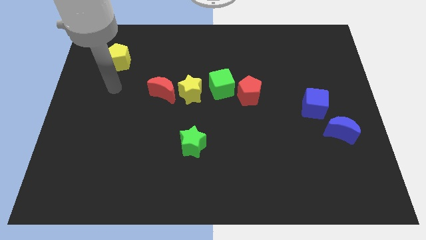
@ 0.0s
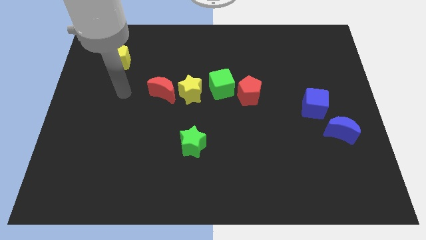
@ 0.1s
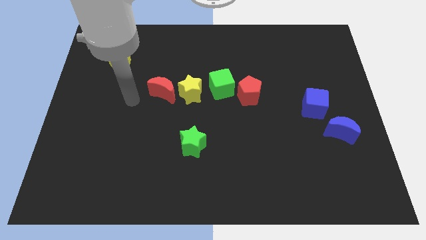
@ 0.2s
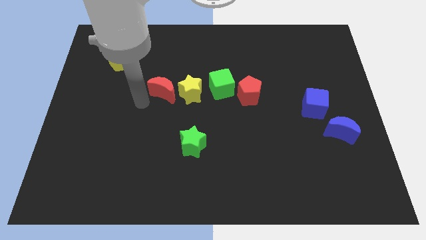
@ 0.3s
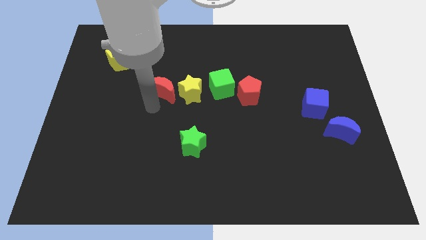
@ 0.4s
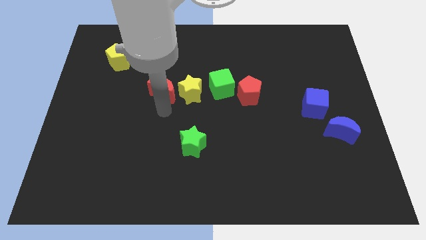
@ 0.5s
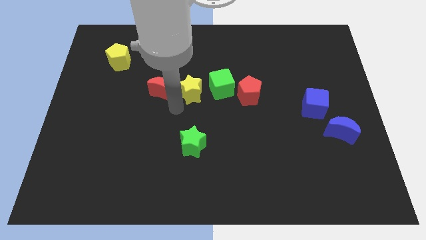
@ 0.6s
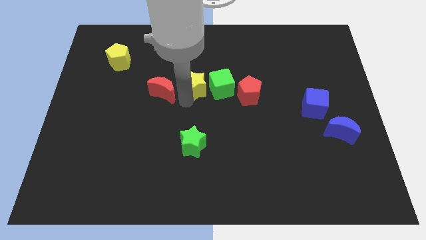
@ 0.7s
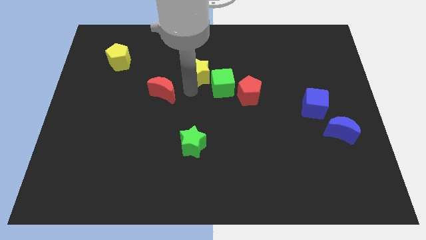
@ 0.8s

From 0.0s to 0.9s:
pull the red moon apart from the yellow star

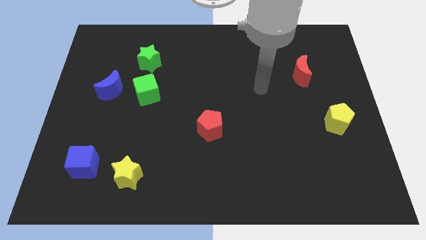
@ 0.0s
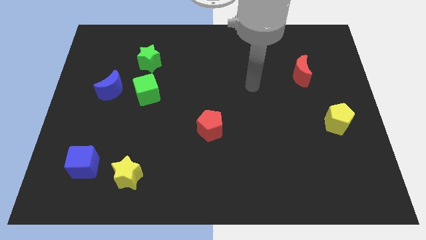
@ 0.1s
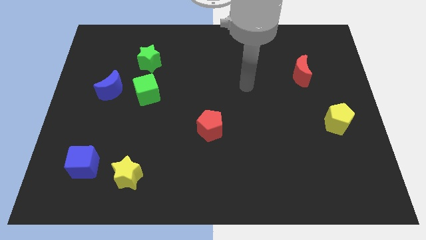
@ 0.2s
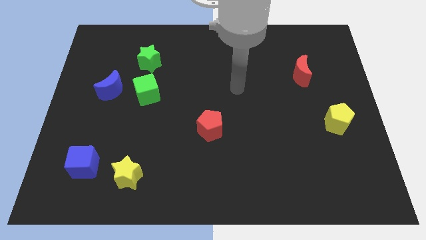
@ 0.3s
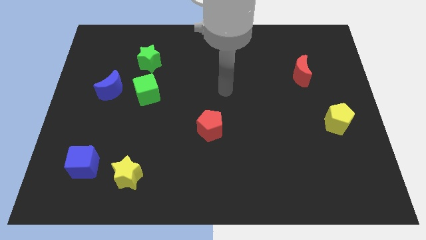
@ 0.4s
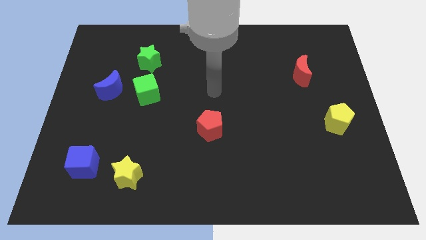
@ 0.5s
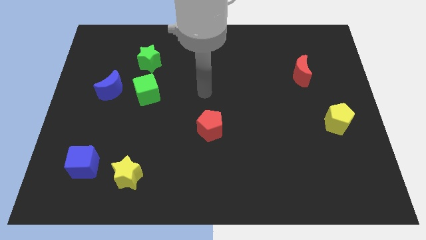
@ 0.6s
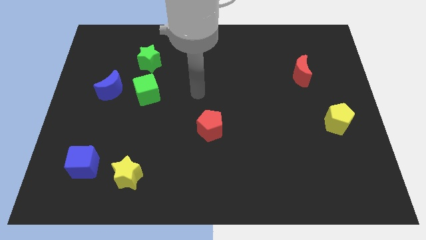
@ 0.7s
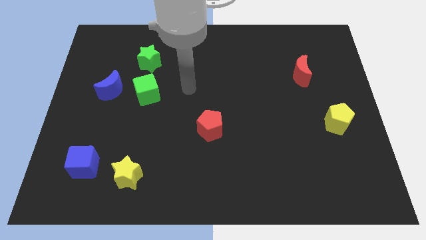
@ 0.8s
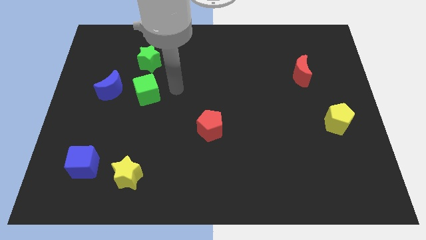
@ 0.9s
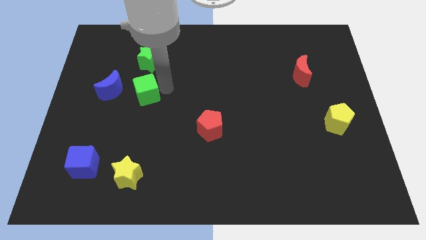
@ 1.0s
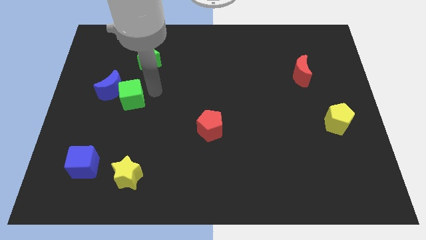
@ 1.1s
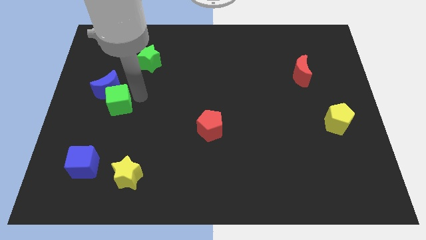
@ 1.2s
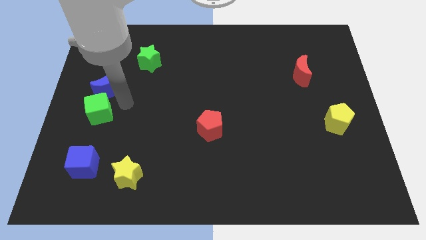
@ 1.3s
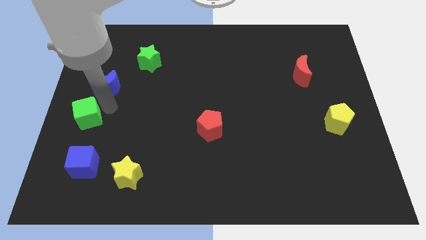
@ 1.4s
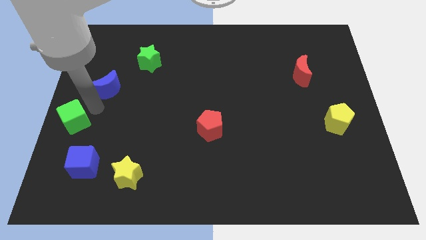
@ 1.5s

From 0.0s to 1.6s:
separate the blue moon from the green cube

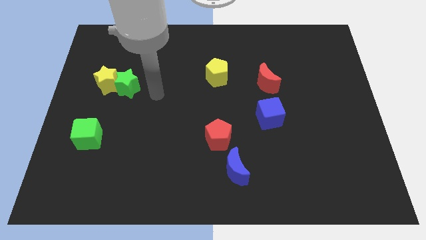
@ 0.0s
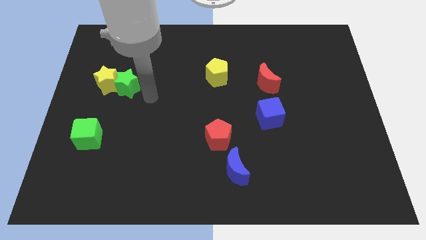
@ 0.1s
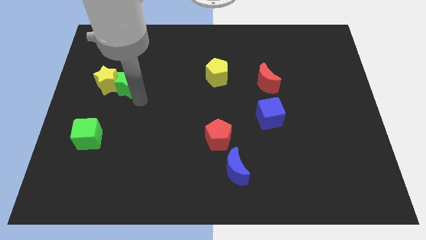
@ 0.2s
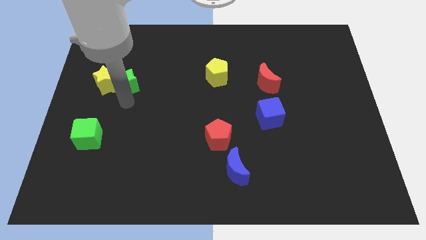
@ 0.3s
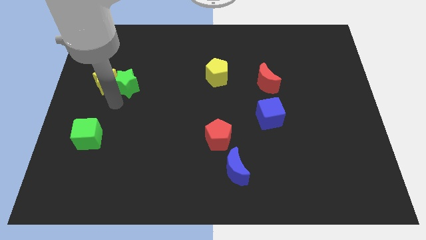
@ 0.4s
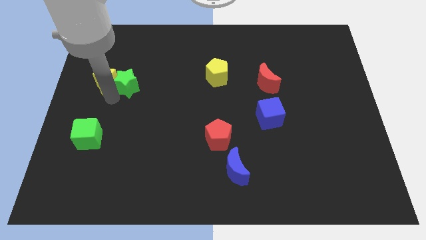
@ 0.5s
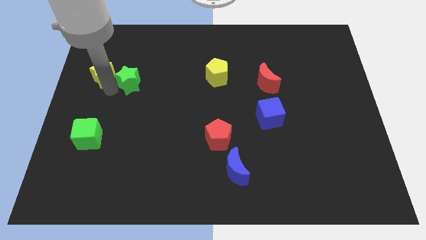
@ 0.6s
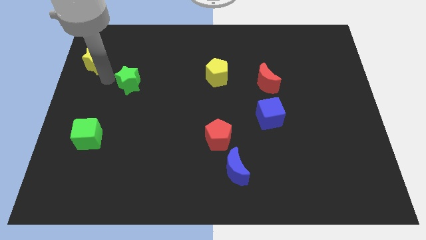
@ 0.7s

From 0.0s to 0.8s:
pull the green star apart from the yellow star

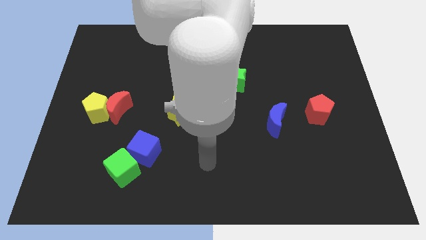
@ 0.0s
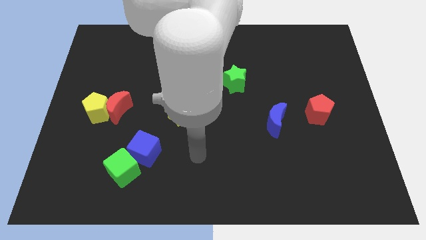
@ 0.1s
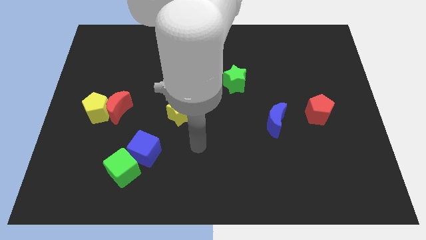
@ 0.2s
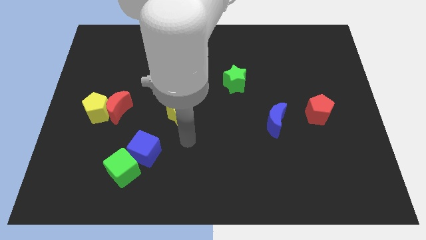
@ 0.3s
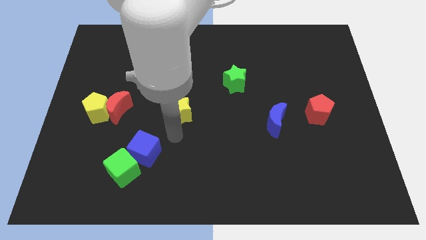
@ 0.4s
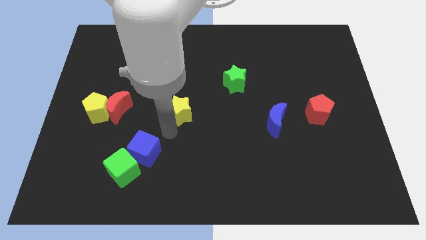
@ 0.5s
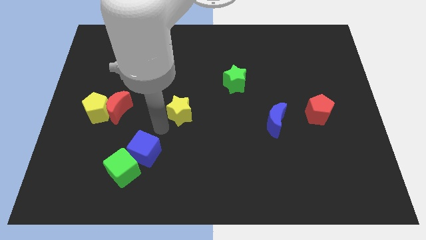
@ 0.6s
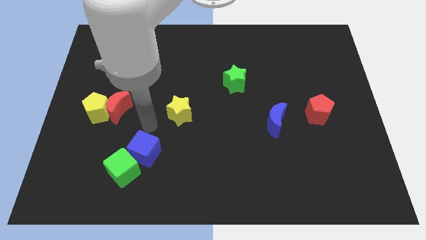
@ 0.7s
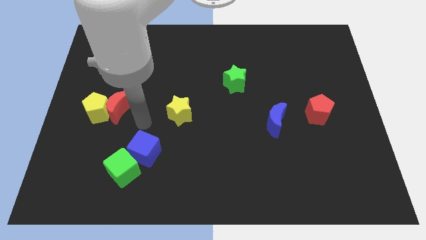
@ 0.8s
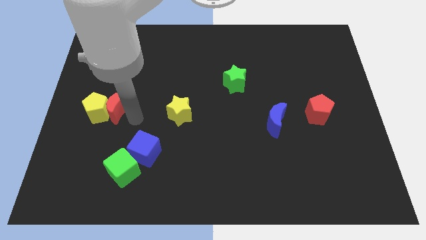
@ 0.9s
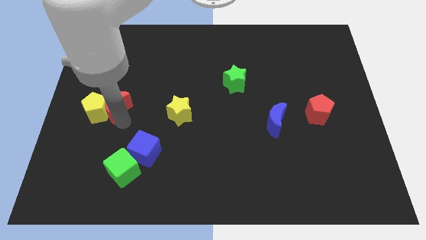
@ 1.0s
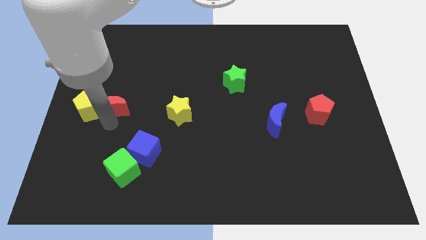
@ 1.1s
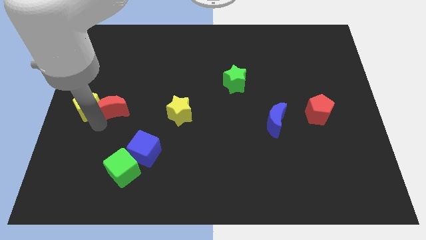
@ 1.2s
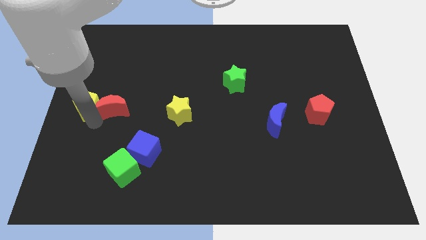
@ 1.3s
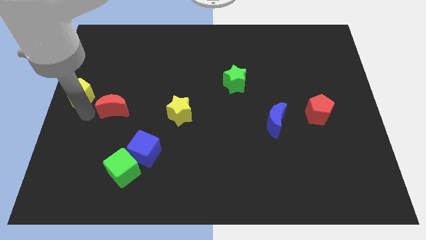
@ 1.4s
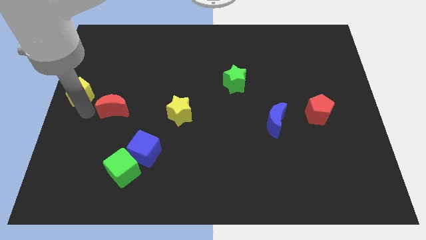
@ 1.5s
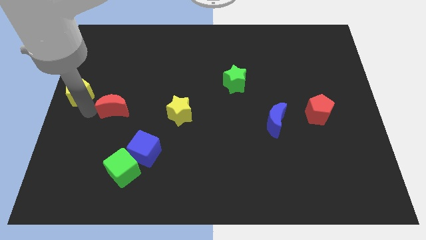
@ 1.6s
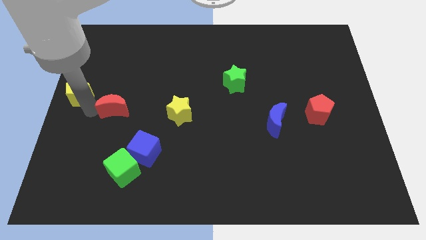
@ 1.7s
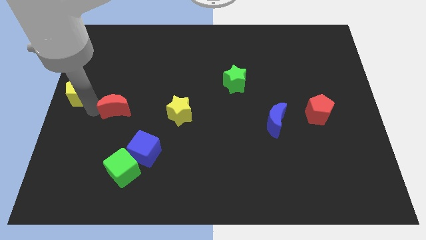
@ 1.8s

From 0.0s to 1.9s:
pull the red moon apart from the yellow pentagon

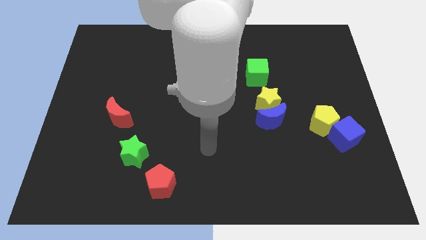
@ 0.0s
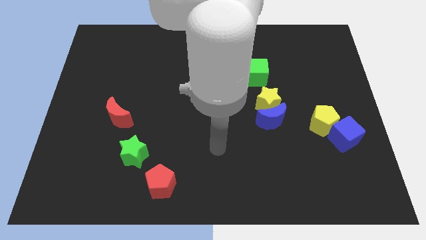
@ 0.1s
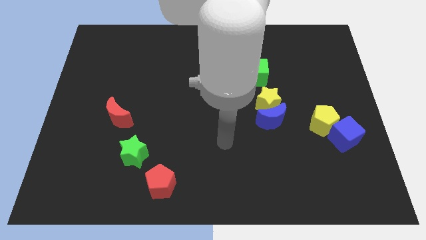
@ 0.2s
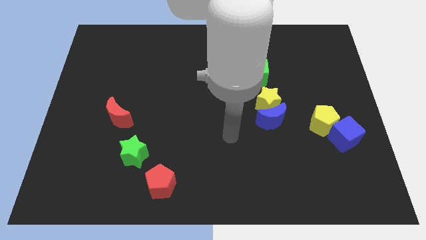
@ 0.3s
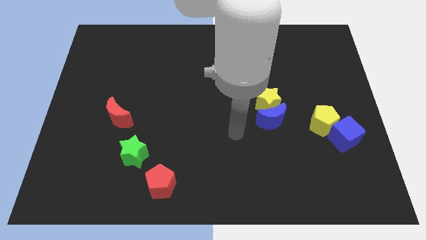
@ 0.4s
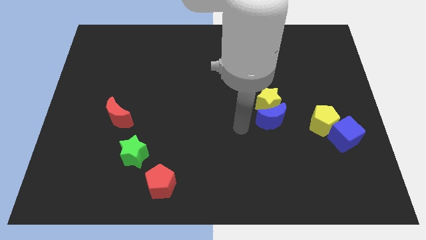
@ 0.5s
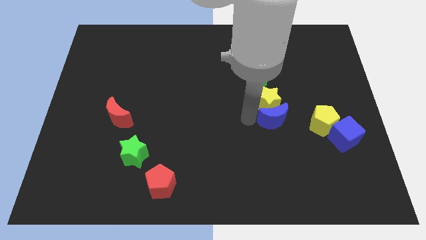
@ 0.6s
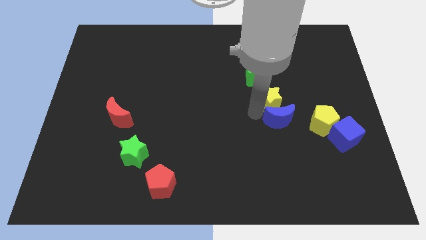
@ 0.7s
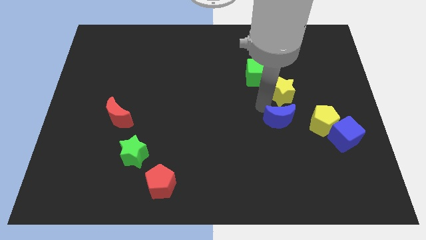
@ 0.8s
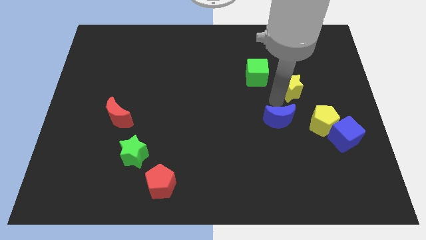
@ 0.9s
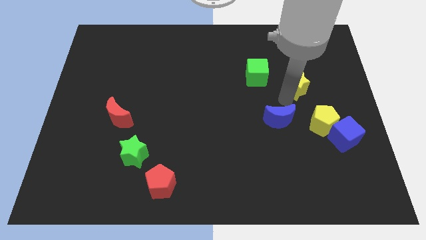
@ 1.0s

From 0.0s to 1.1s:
pull the blue moon apart from the yellow star

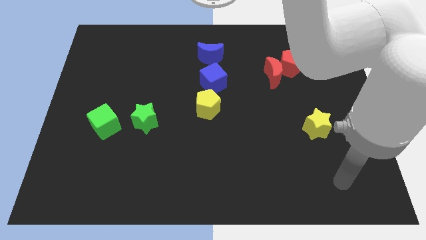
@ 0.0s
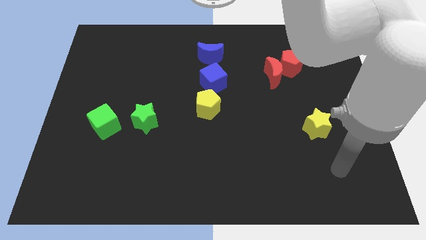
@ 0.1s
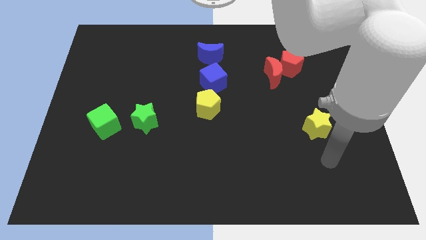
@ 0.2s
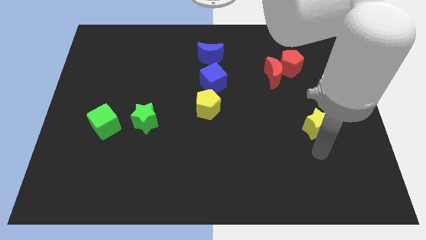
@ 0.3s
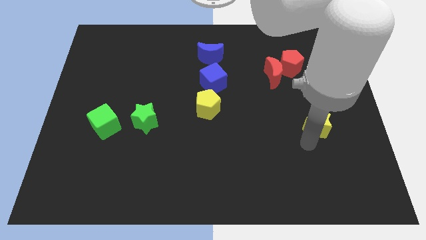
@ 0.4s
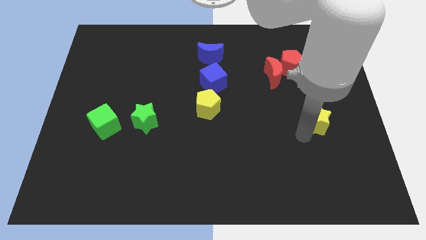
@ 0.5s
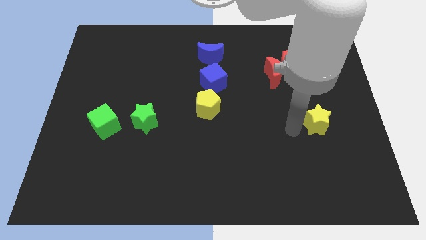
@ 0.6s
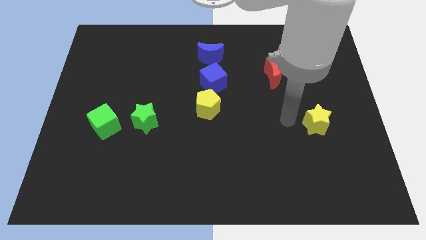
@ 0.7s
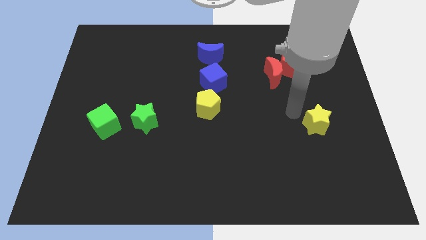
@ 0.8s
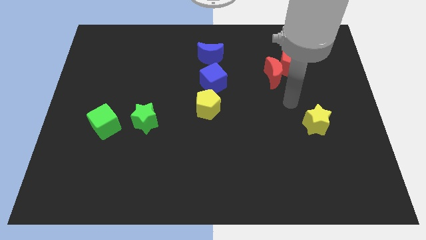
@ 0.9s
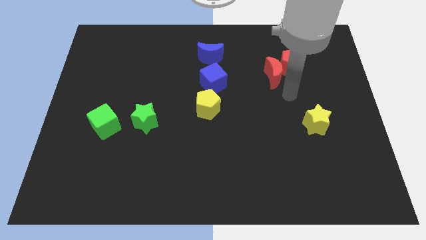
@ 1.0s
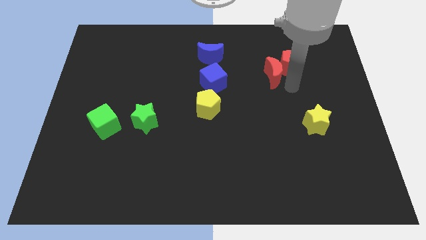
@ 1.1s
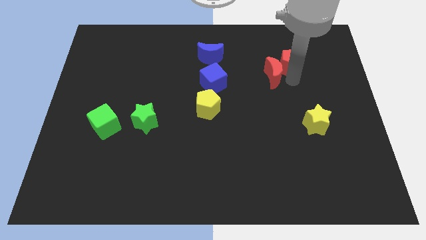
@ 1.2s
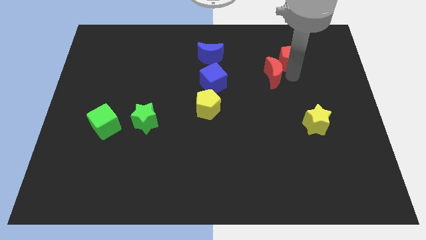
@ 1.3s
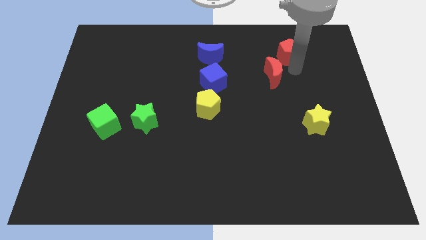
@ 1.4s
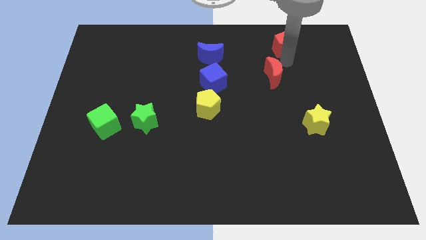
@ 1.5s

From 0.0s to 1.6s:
move the red moon away from the red pentagon

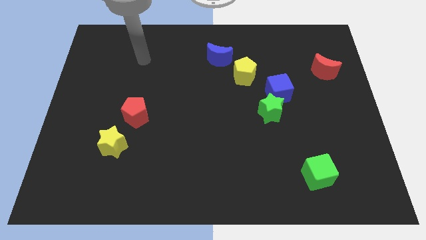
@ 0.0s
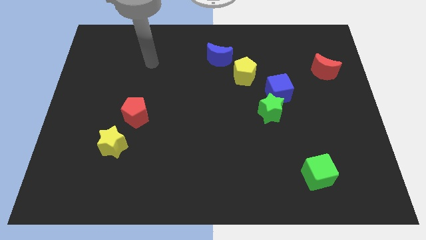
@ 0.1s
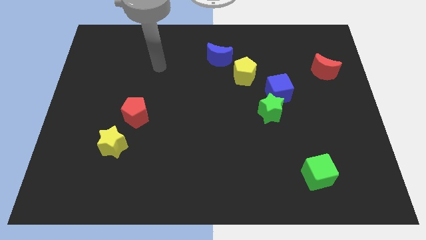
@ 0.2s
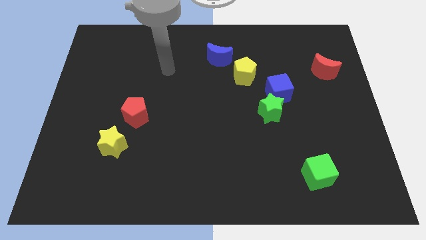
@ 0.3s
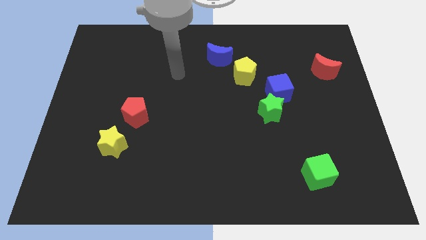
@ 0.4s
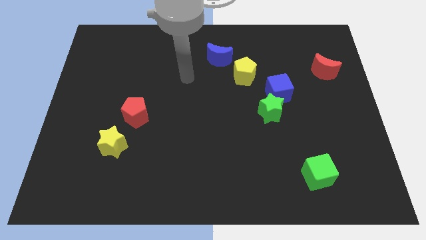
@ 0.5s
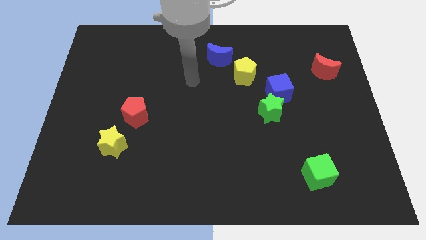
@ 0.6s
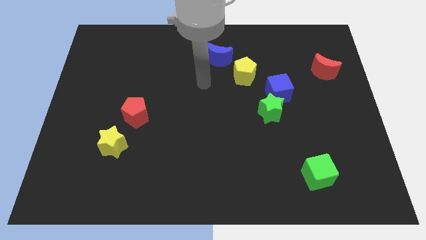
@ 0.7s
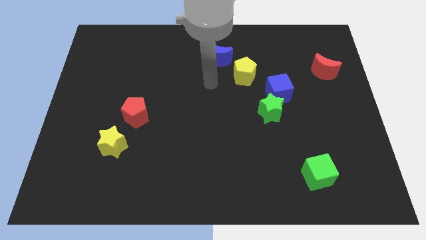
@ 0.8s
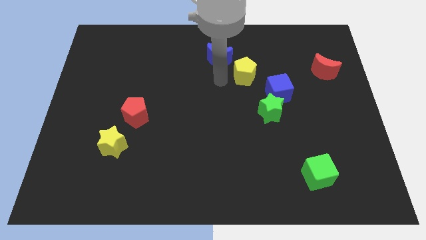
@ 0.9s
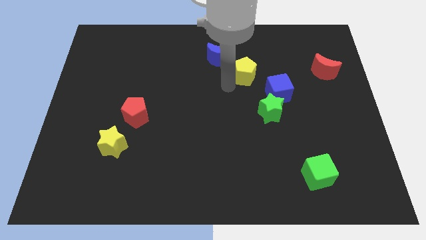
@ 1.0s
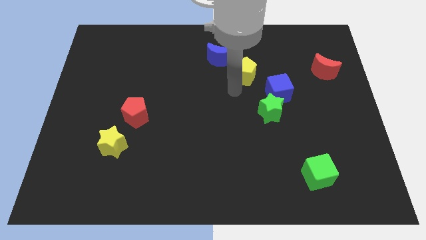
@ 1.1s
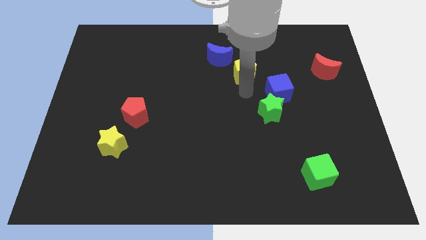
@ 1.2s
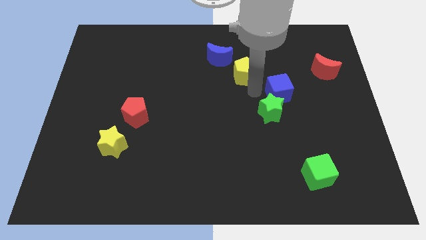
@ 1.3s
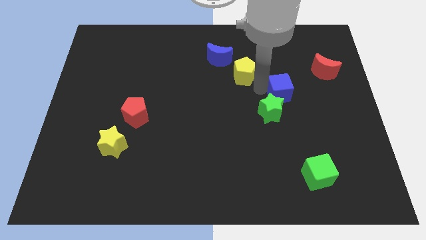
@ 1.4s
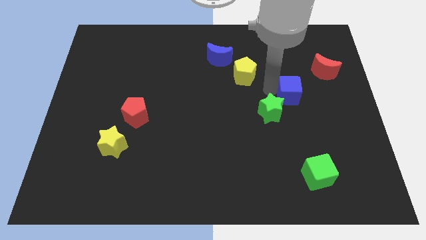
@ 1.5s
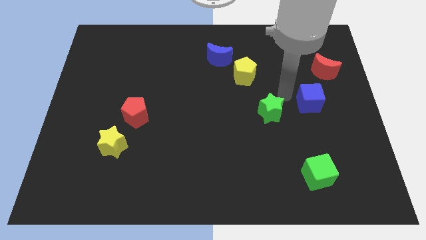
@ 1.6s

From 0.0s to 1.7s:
separate the green star from the blue cube
